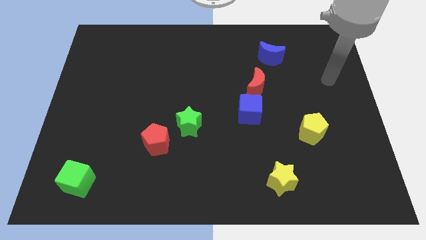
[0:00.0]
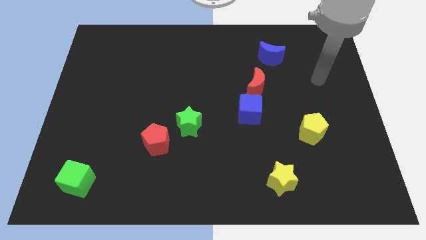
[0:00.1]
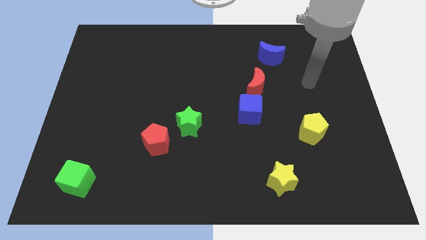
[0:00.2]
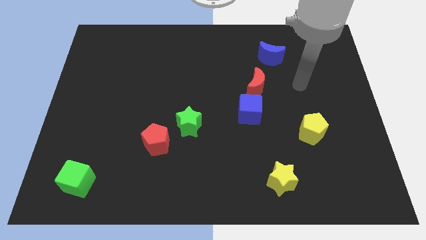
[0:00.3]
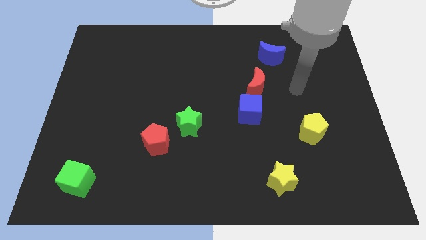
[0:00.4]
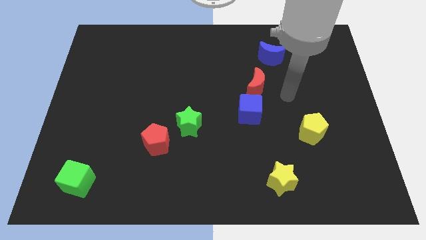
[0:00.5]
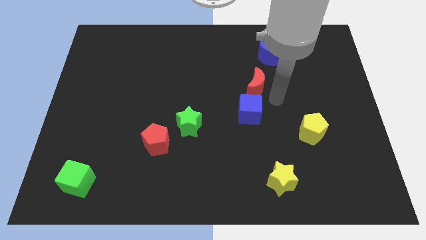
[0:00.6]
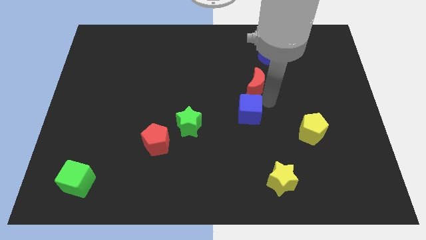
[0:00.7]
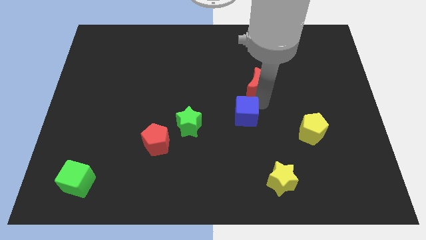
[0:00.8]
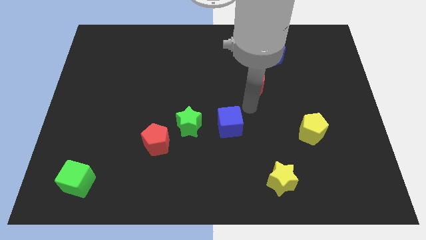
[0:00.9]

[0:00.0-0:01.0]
separate the red moon from the blue cube

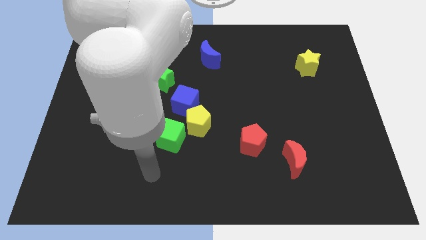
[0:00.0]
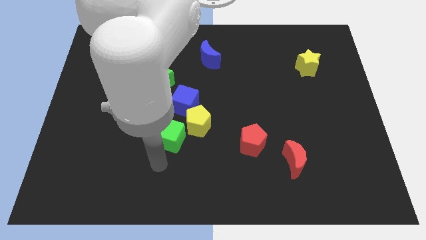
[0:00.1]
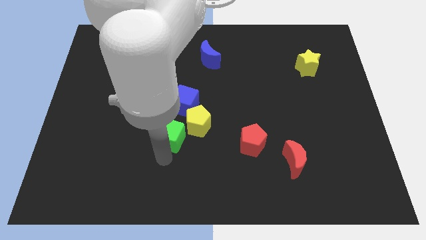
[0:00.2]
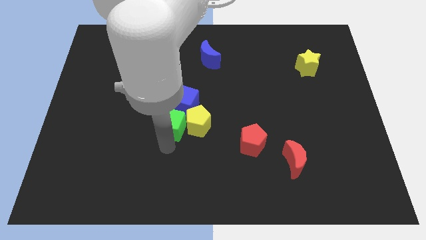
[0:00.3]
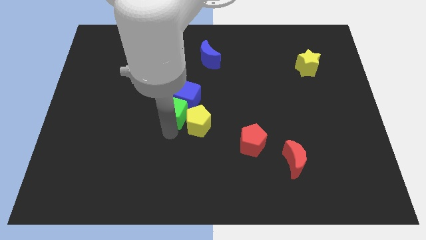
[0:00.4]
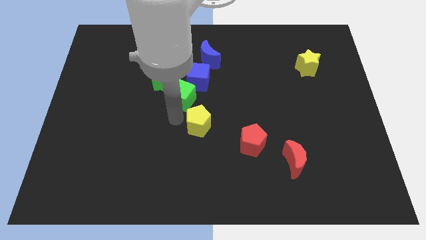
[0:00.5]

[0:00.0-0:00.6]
separate the yellow pentagon from the blue cube and green cube

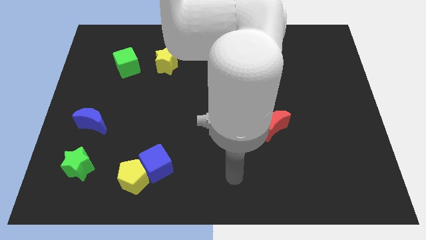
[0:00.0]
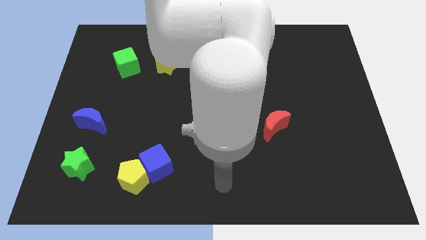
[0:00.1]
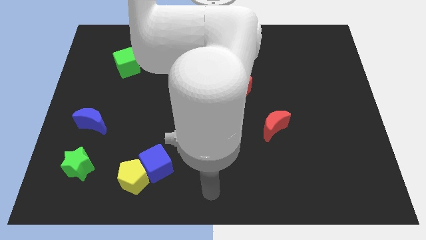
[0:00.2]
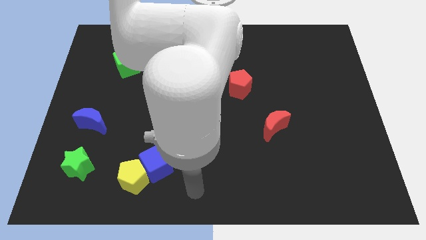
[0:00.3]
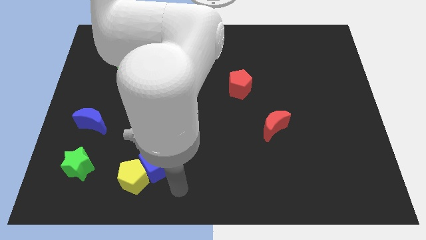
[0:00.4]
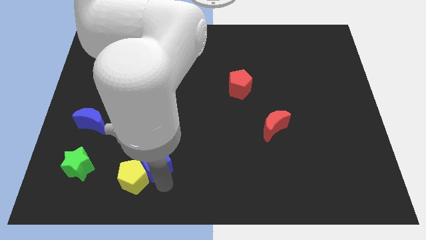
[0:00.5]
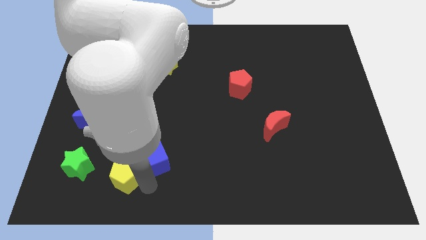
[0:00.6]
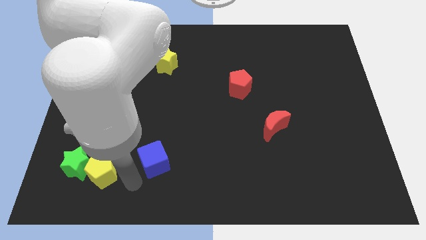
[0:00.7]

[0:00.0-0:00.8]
move the blue cube away from the yellow pentagon

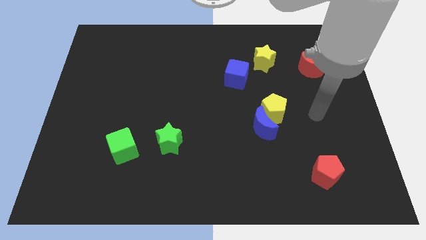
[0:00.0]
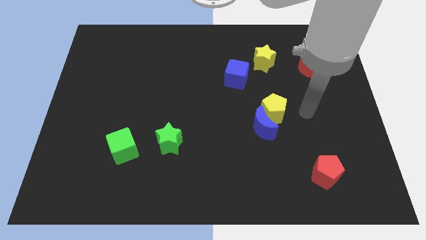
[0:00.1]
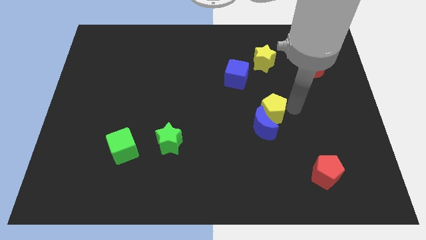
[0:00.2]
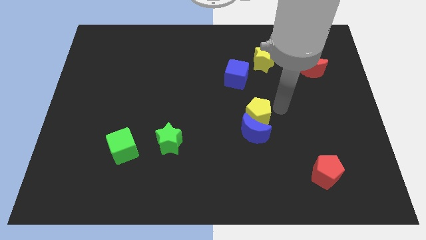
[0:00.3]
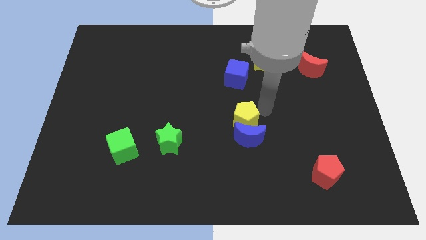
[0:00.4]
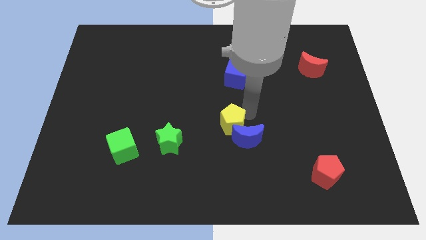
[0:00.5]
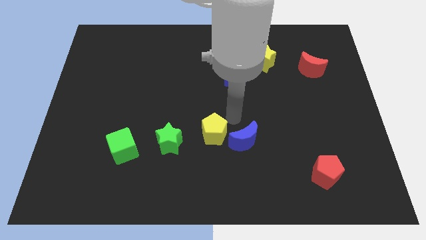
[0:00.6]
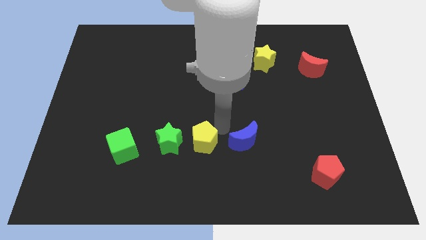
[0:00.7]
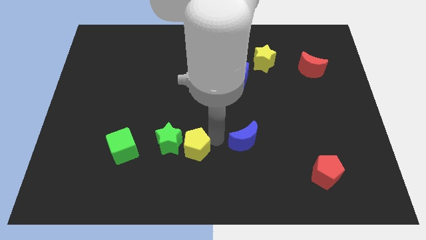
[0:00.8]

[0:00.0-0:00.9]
separate the blue moon from the yellow pentagon

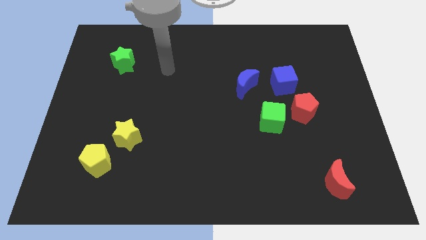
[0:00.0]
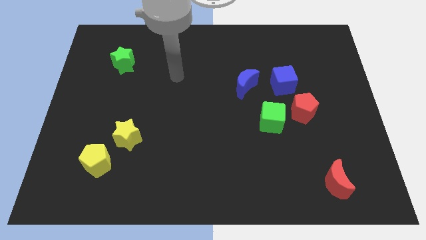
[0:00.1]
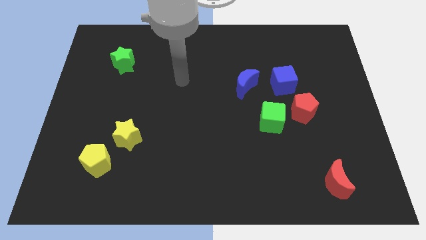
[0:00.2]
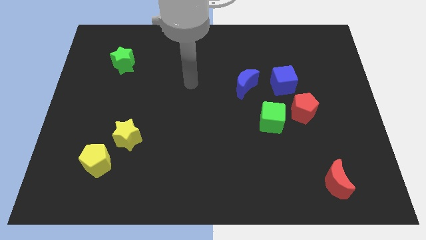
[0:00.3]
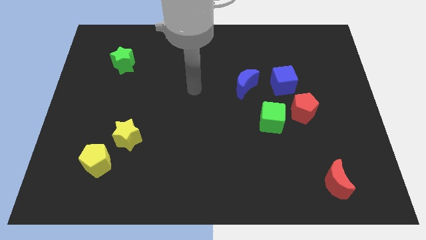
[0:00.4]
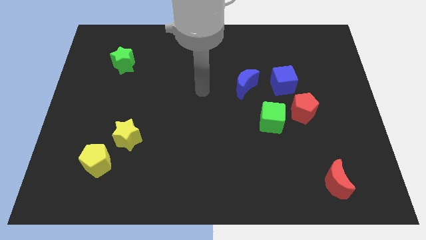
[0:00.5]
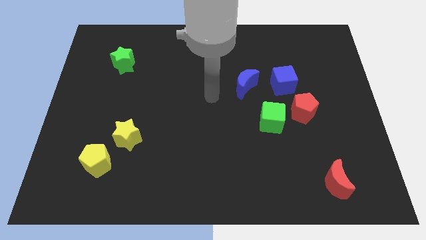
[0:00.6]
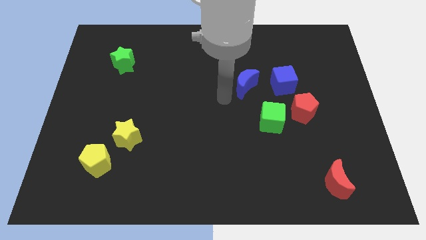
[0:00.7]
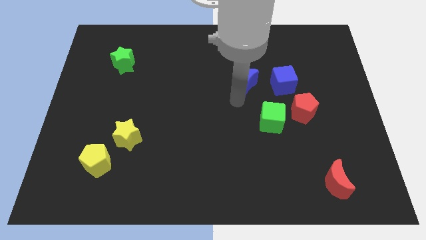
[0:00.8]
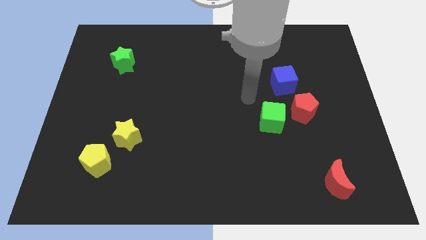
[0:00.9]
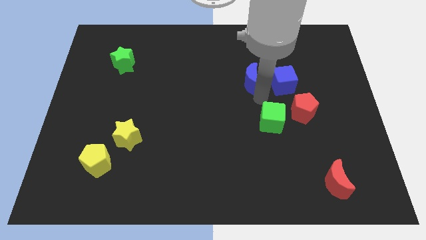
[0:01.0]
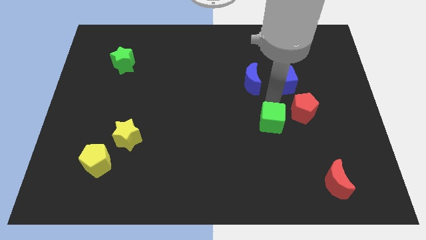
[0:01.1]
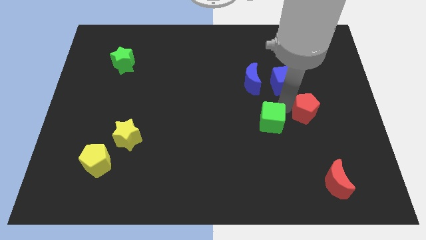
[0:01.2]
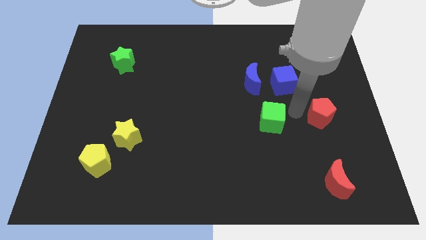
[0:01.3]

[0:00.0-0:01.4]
pull the green cube apart from the red pentagon

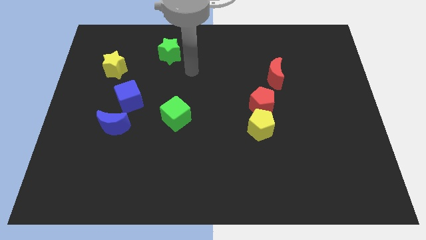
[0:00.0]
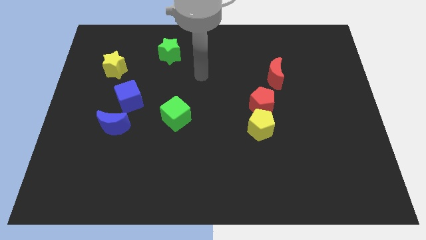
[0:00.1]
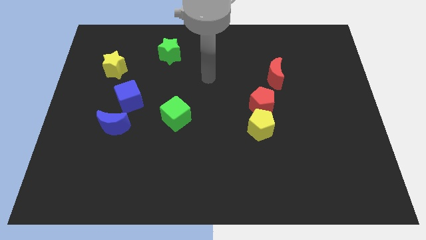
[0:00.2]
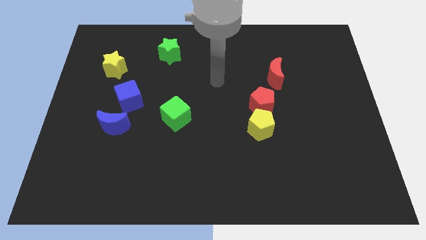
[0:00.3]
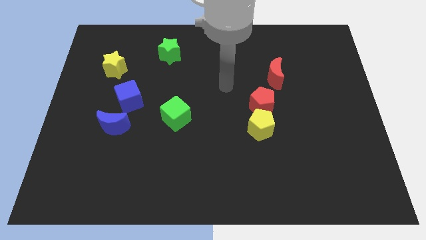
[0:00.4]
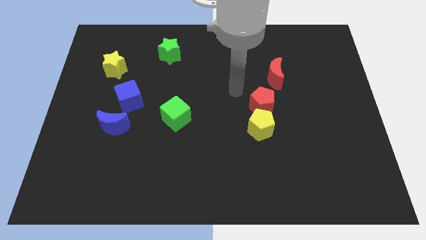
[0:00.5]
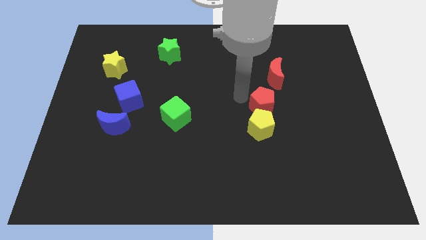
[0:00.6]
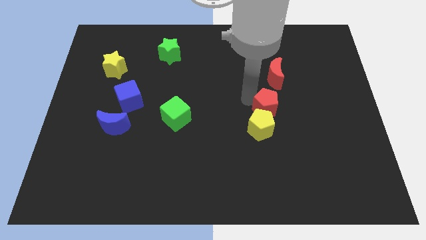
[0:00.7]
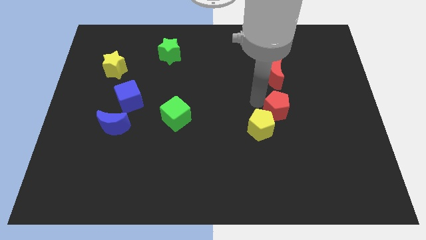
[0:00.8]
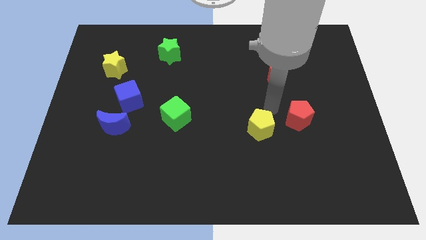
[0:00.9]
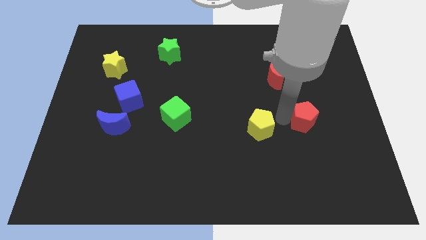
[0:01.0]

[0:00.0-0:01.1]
move the yellow pentagon away from the red pentagon

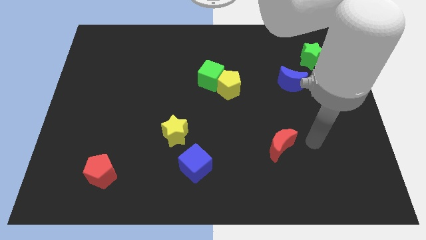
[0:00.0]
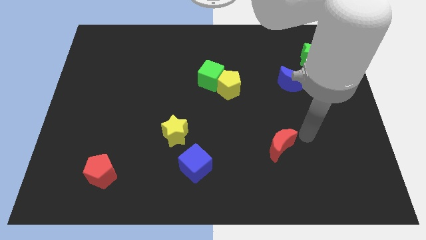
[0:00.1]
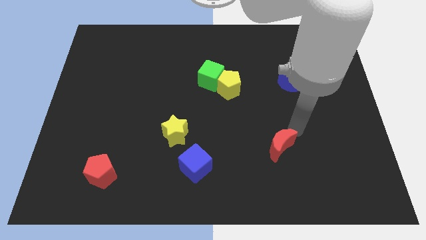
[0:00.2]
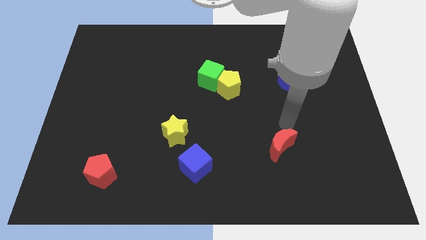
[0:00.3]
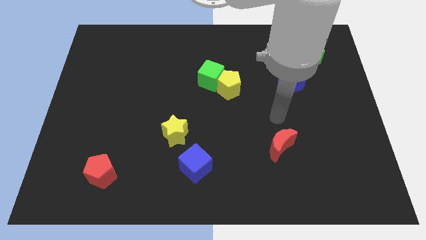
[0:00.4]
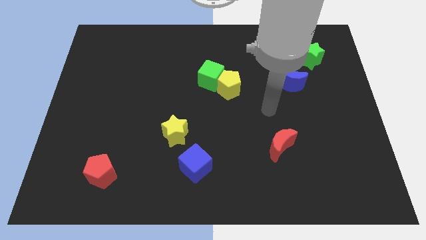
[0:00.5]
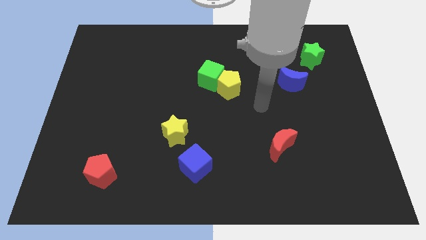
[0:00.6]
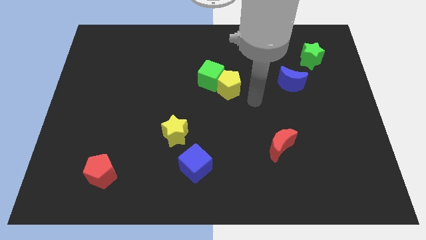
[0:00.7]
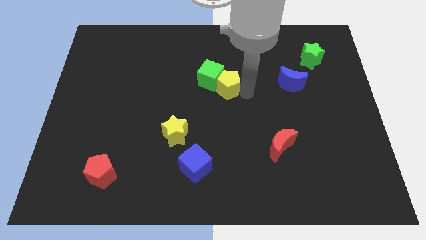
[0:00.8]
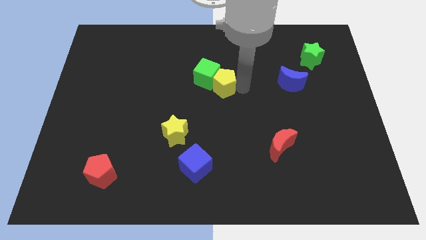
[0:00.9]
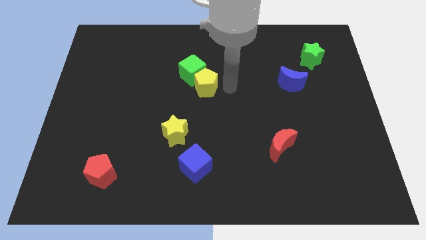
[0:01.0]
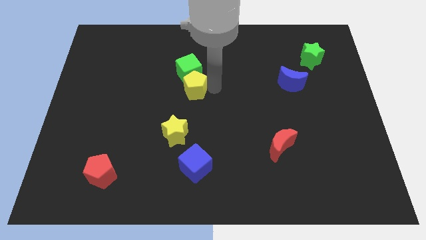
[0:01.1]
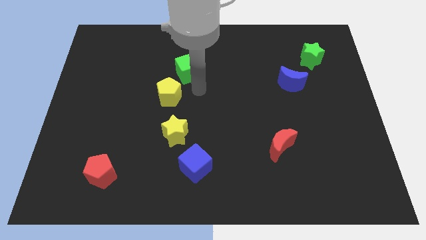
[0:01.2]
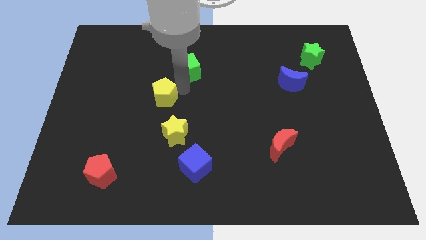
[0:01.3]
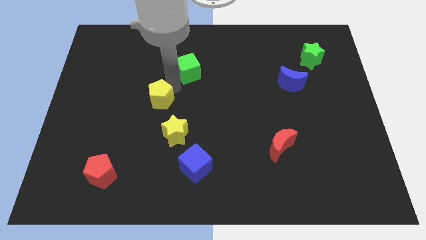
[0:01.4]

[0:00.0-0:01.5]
separate the green cube from the yellow pentagon

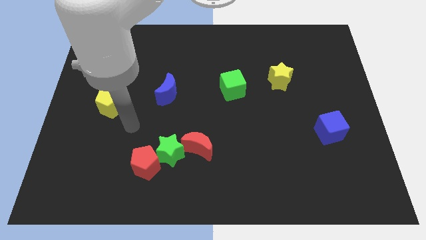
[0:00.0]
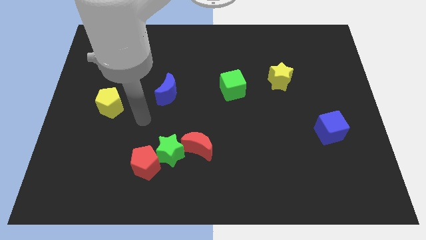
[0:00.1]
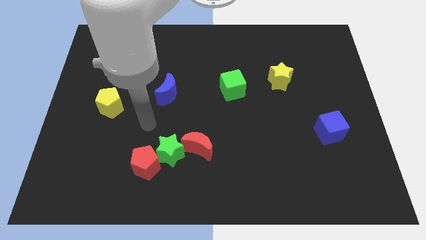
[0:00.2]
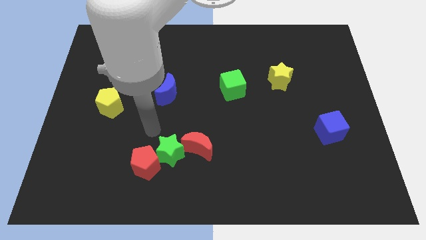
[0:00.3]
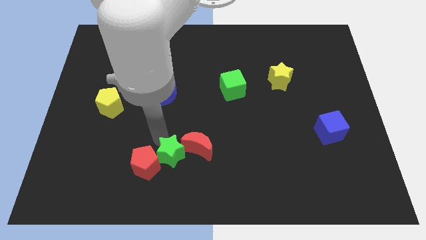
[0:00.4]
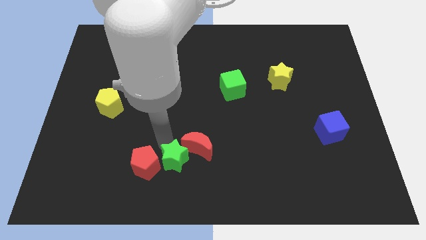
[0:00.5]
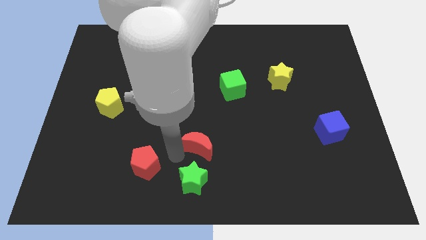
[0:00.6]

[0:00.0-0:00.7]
move the red pentagon away from the green star

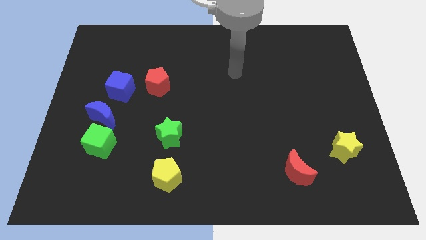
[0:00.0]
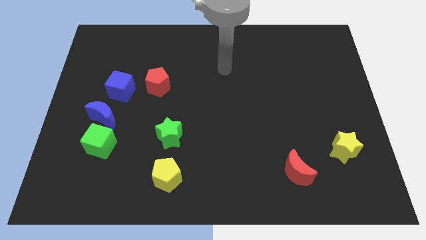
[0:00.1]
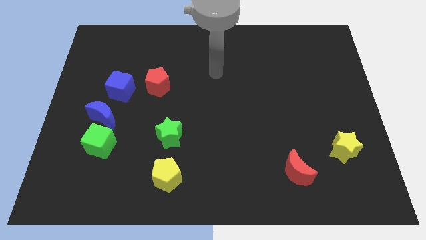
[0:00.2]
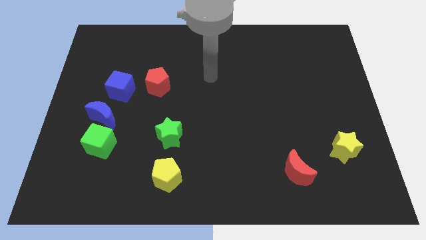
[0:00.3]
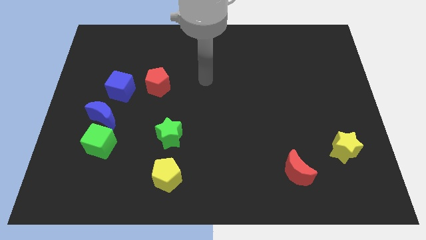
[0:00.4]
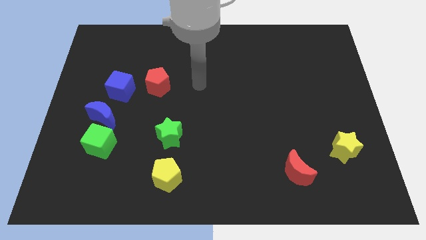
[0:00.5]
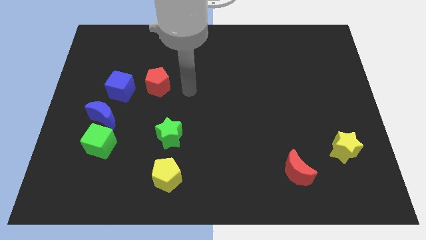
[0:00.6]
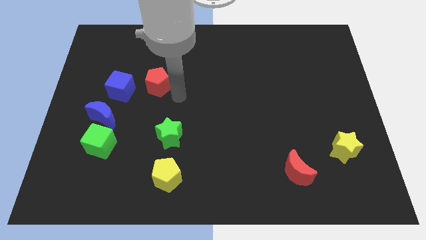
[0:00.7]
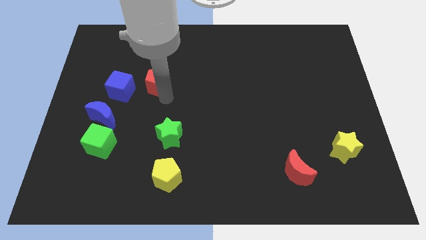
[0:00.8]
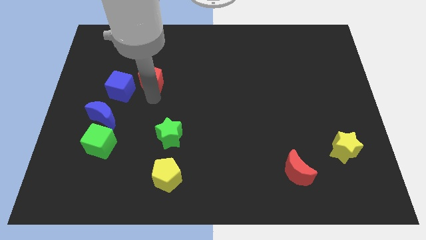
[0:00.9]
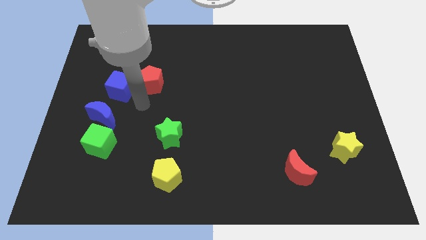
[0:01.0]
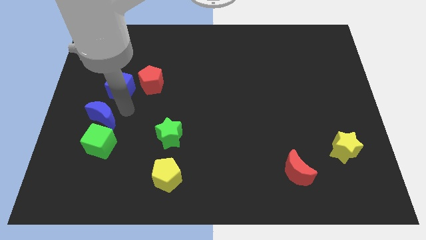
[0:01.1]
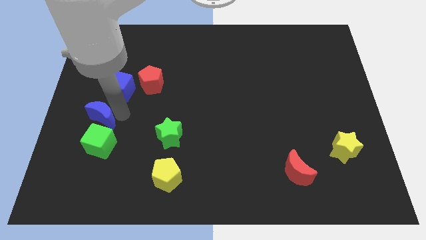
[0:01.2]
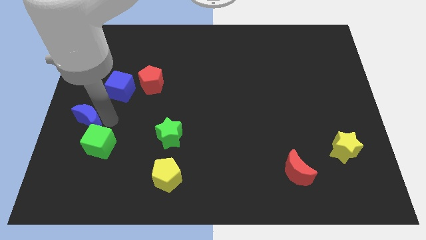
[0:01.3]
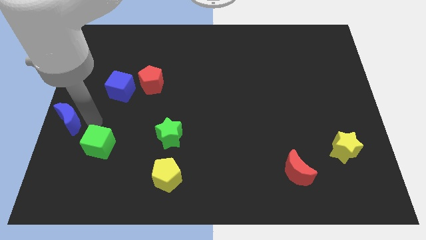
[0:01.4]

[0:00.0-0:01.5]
move the green cube away from the blue moon

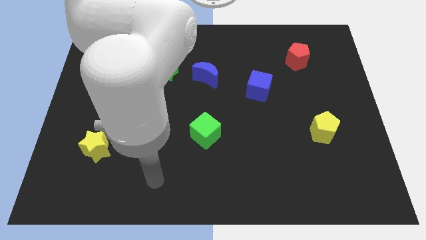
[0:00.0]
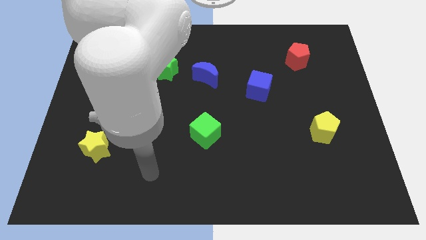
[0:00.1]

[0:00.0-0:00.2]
separate the red moon from the yellow star
